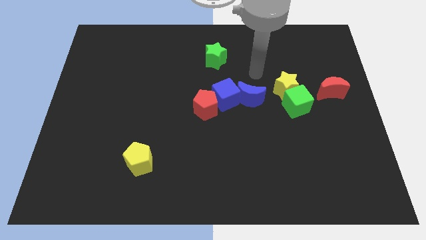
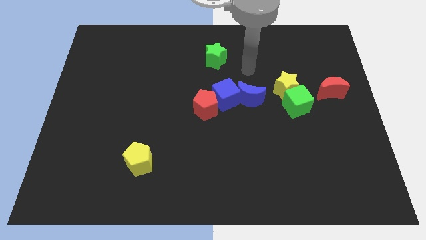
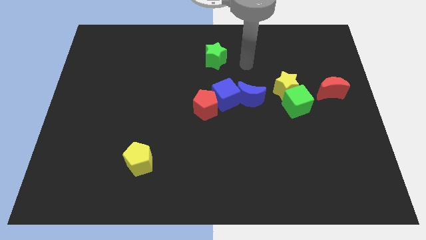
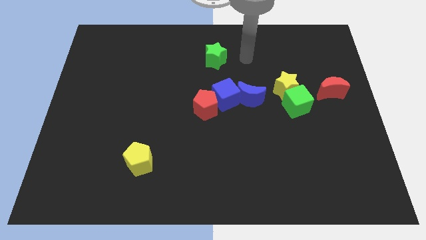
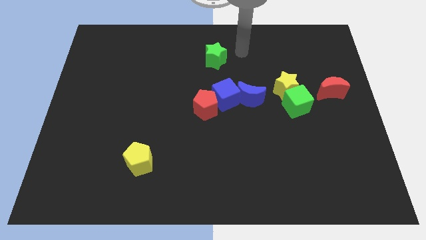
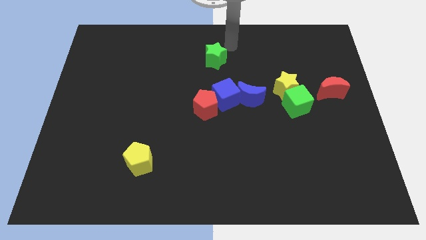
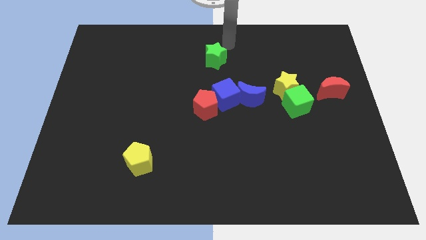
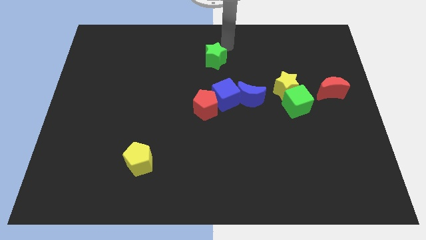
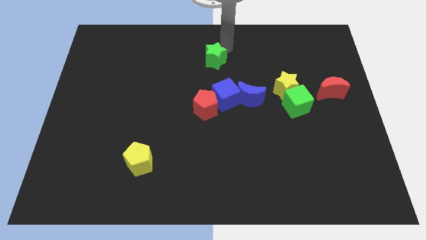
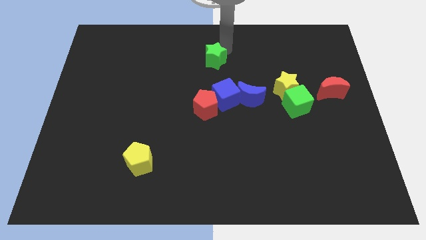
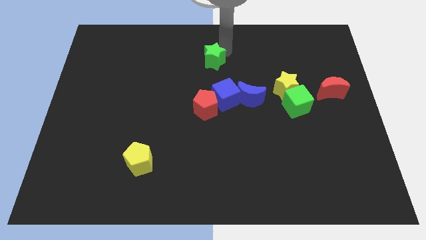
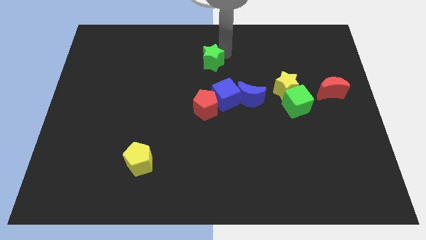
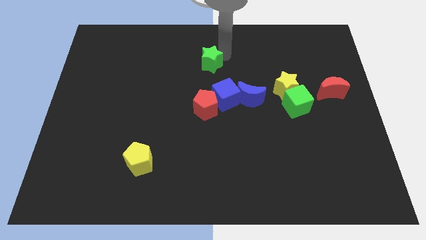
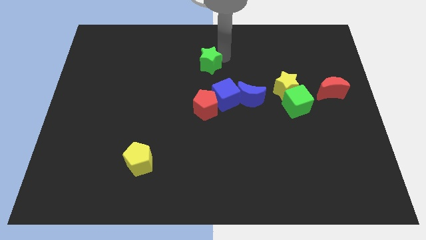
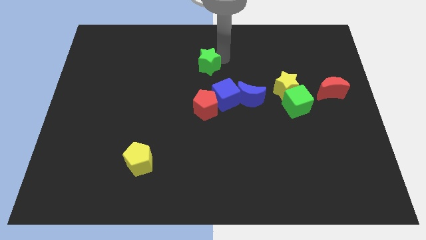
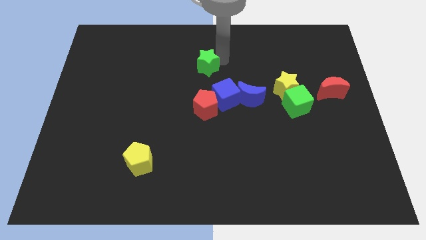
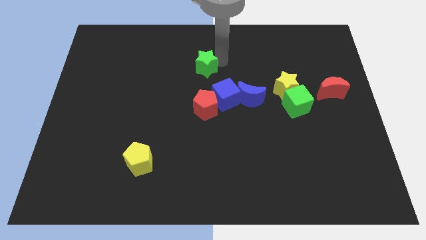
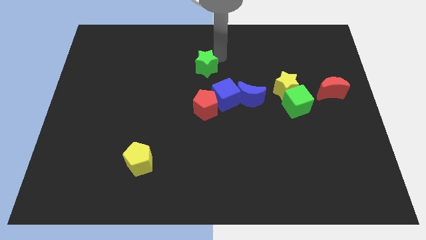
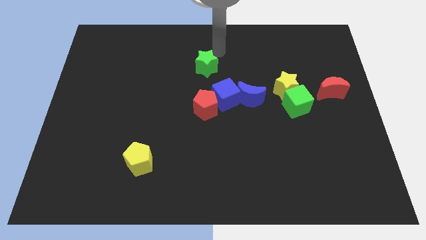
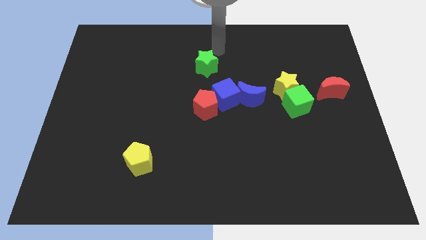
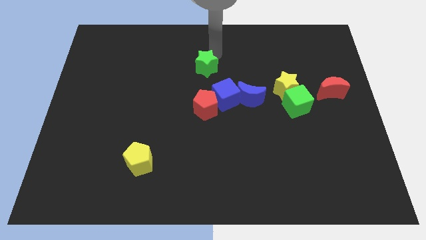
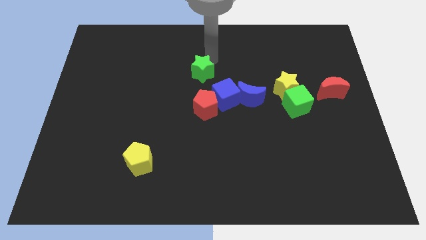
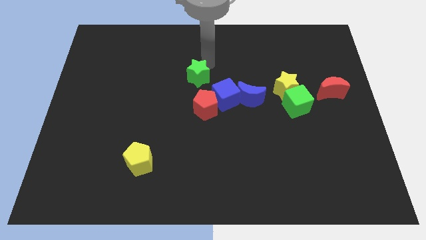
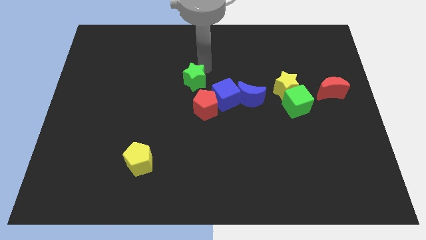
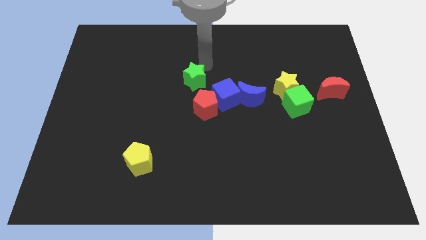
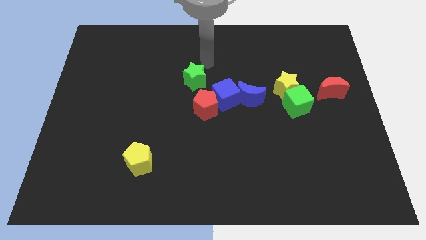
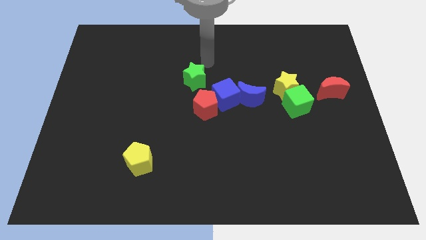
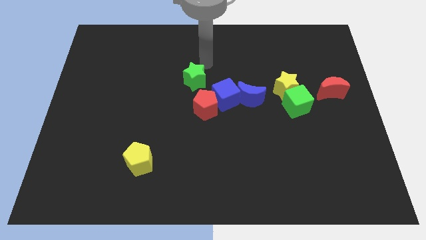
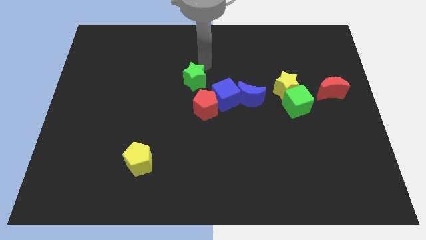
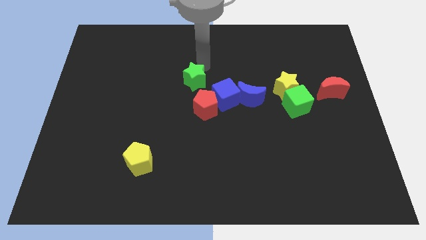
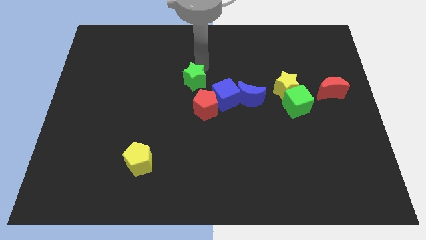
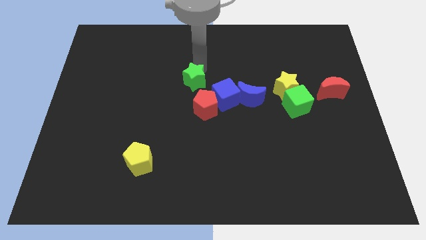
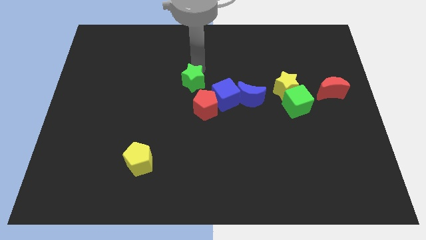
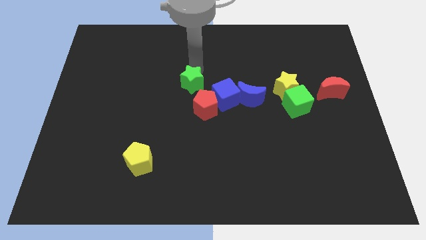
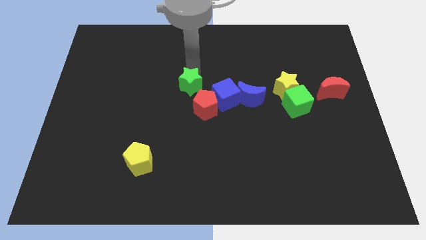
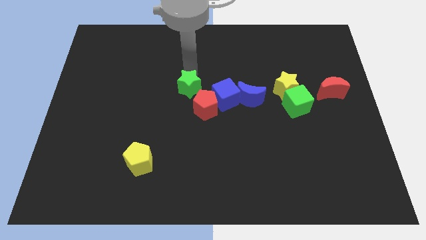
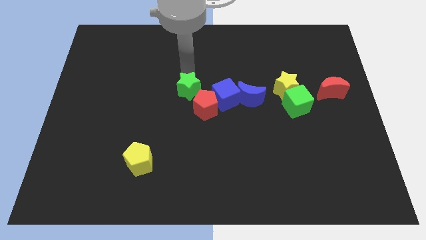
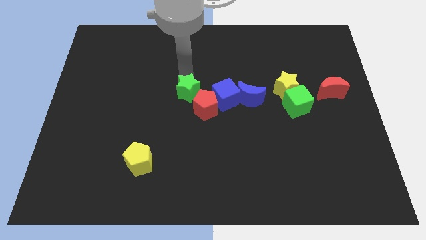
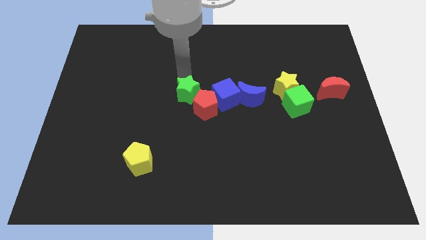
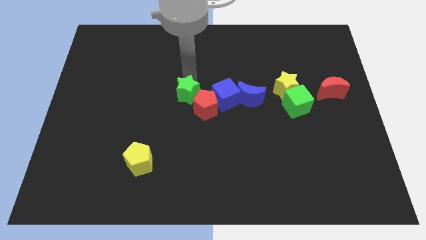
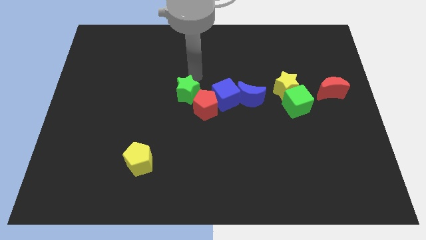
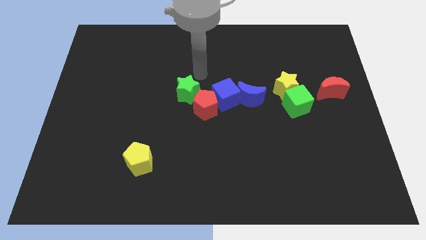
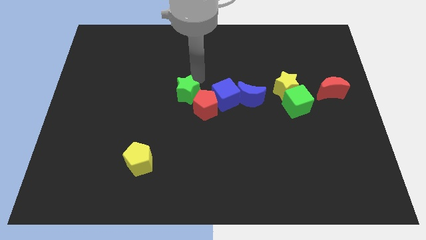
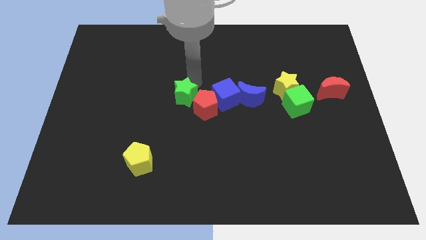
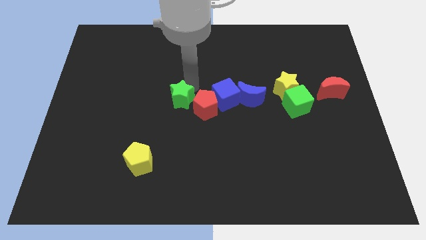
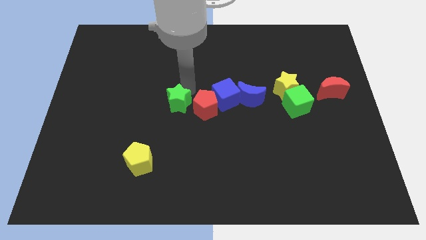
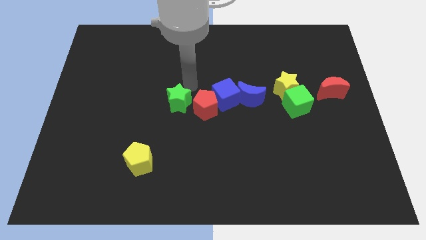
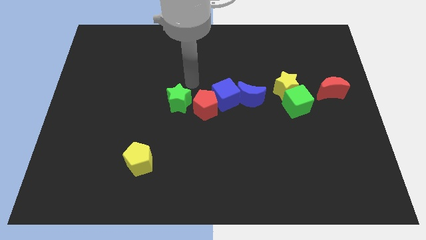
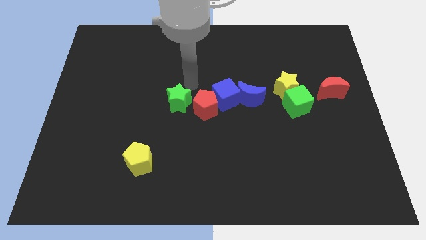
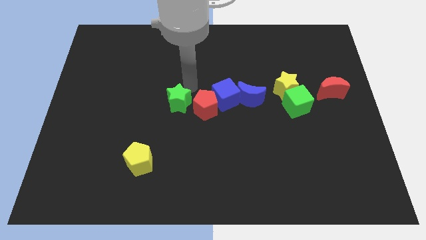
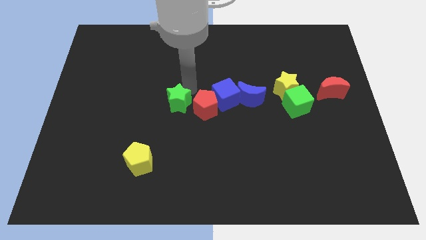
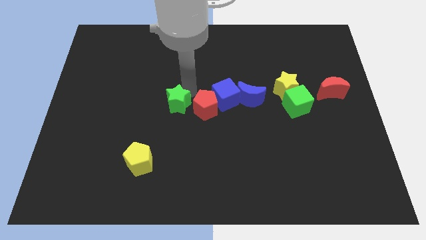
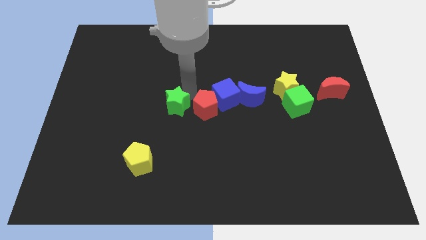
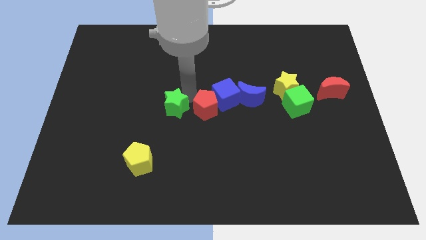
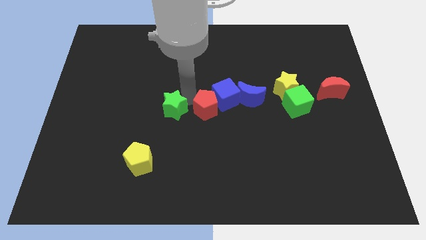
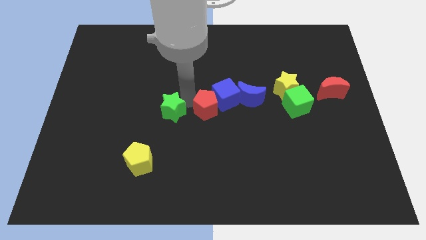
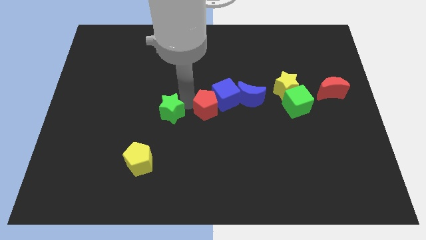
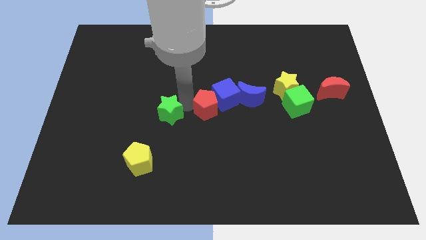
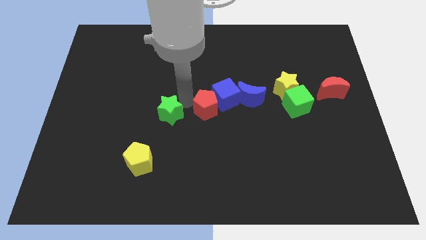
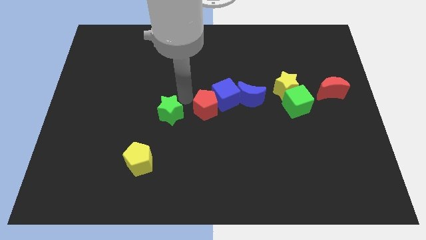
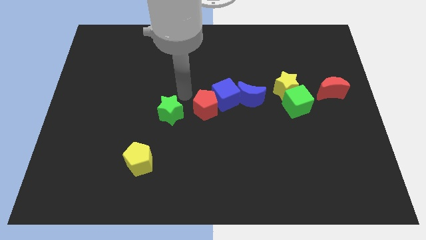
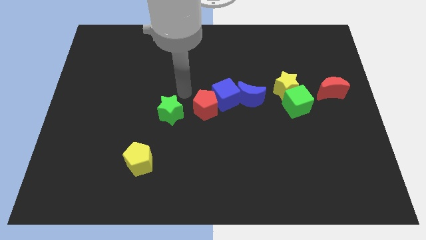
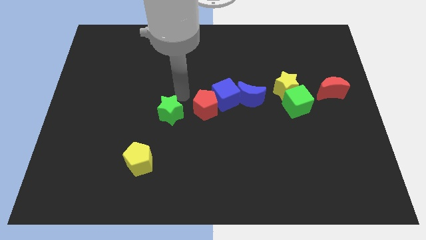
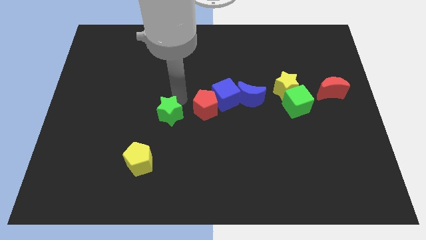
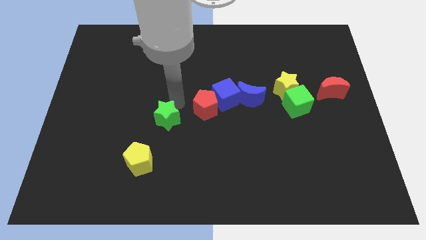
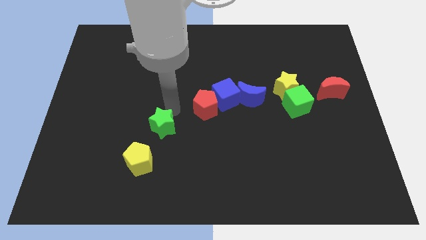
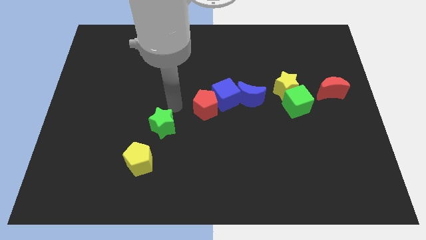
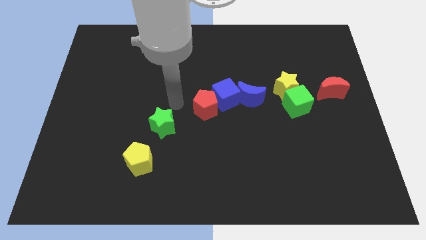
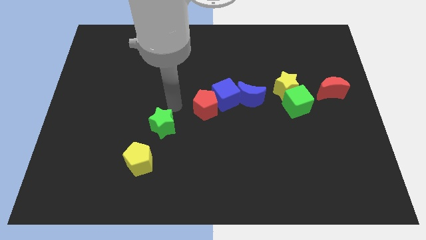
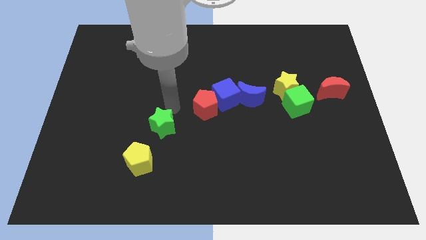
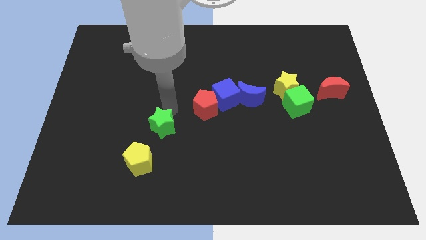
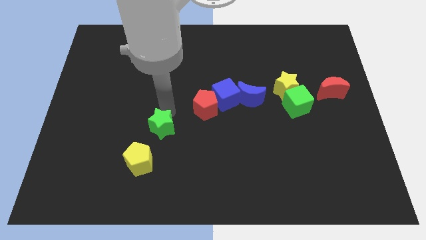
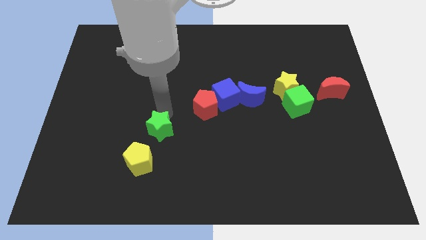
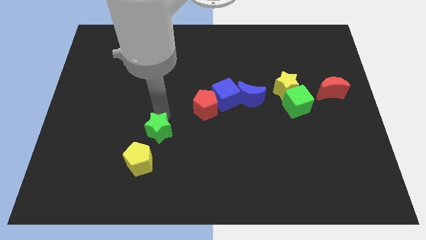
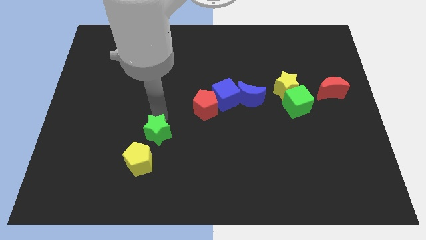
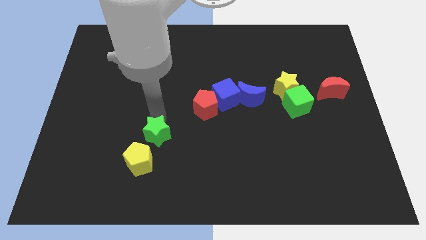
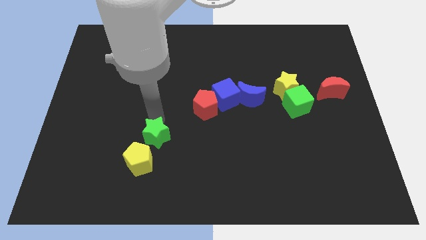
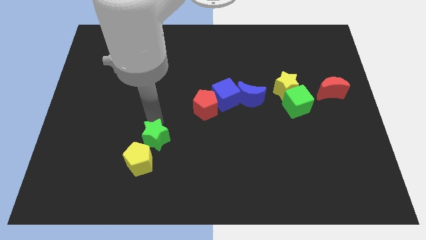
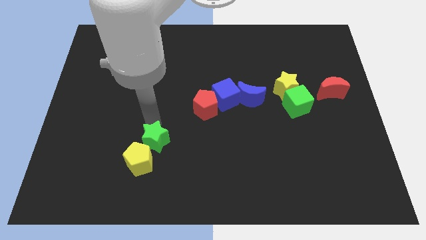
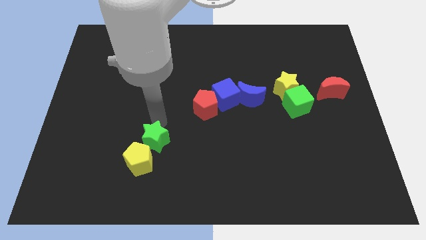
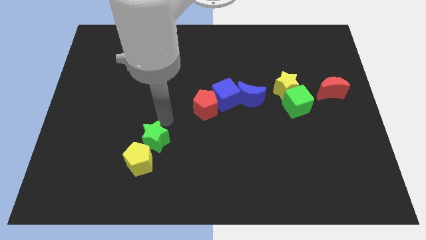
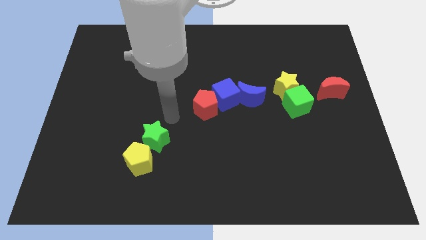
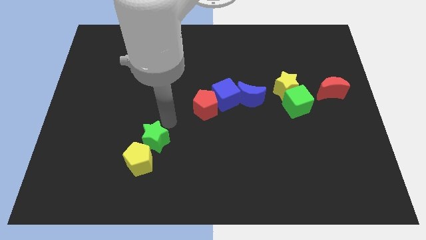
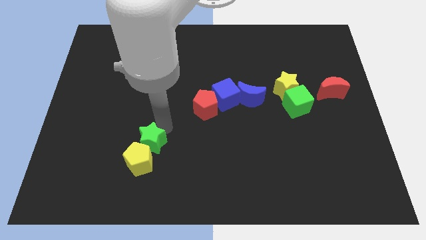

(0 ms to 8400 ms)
put the green star next to the yellow pentagon
